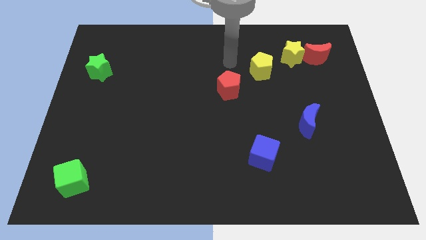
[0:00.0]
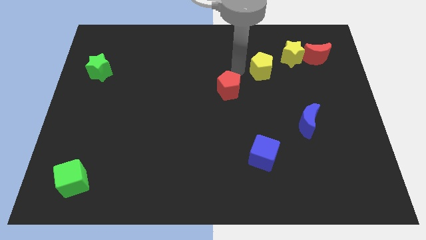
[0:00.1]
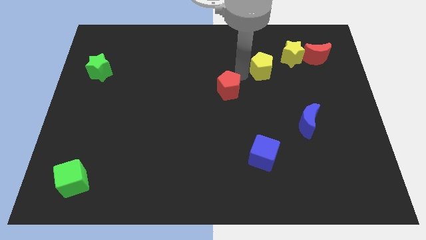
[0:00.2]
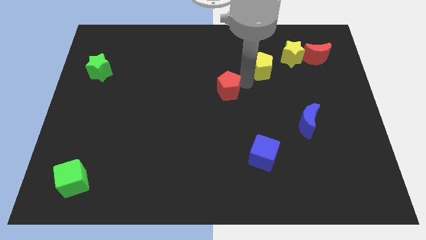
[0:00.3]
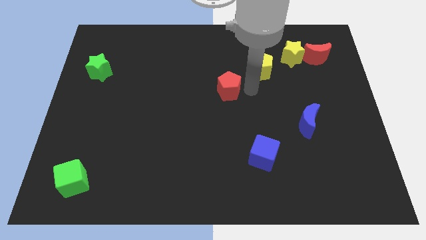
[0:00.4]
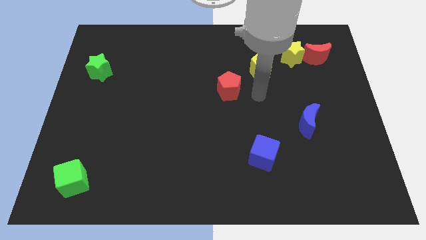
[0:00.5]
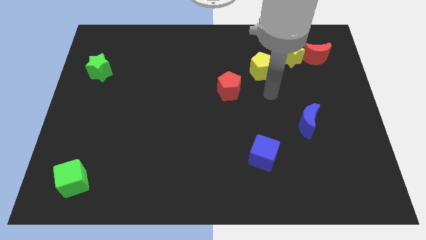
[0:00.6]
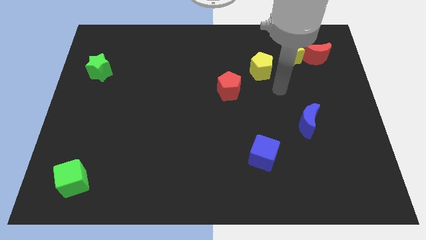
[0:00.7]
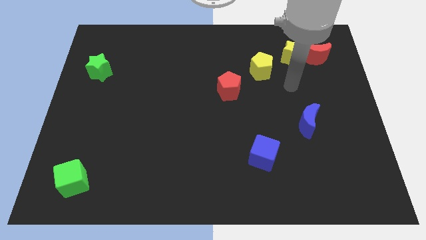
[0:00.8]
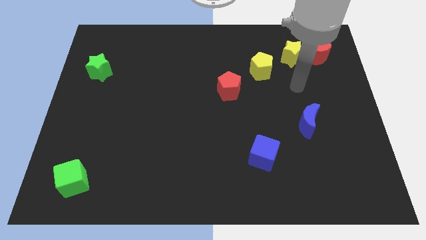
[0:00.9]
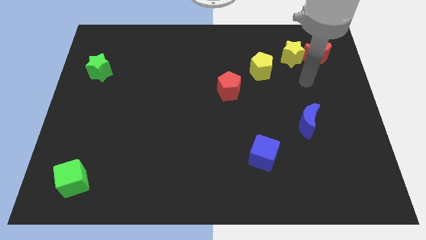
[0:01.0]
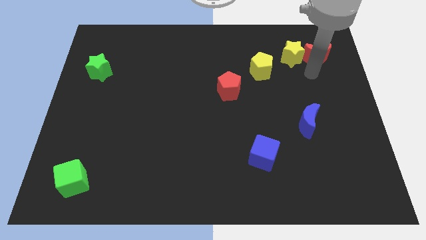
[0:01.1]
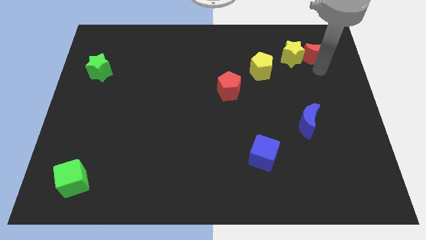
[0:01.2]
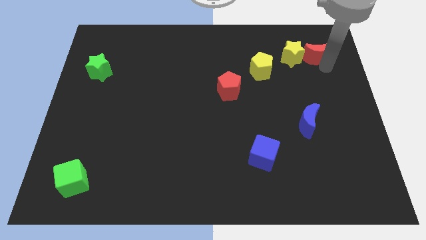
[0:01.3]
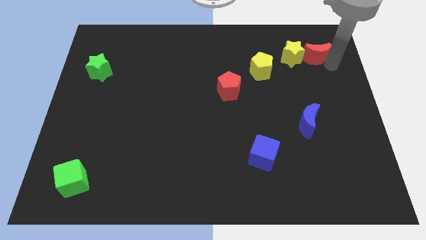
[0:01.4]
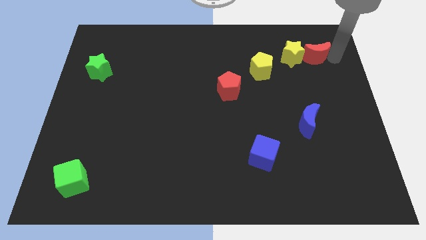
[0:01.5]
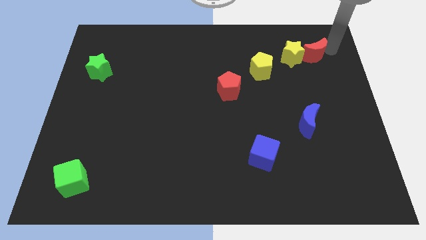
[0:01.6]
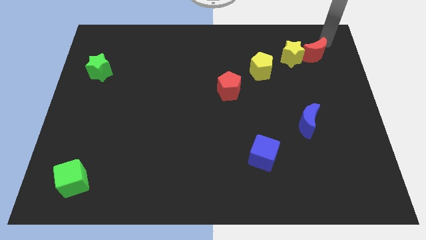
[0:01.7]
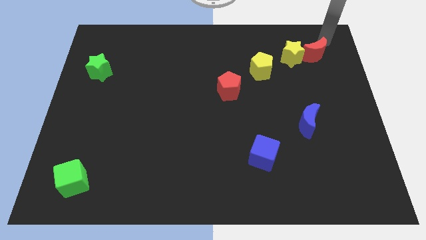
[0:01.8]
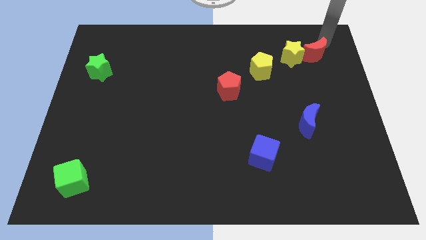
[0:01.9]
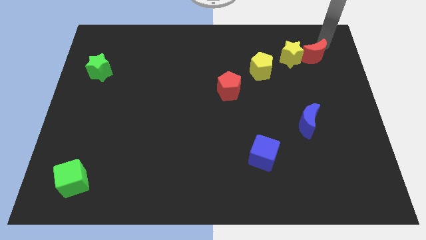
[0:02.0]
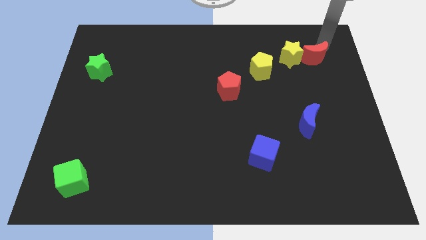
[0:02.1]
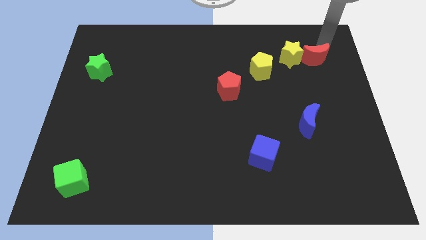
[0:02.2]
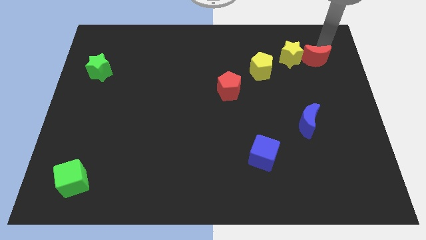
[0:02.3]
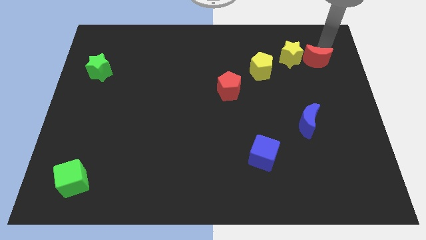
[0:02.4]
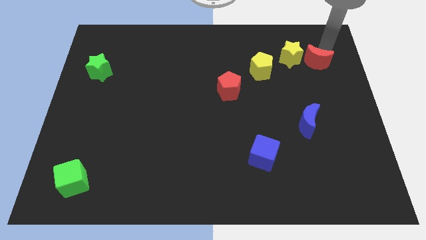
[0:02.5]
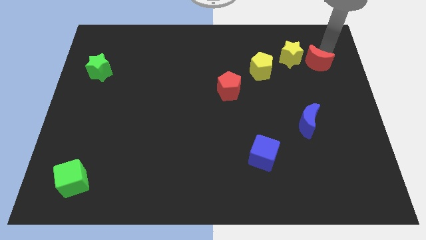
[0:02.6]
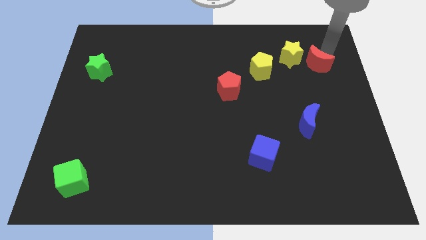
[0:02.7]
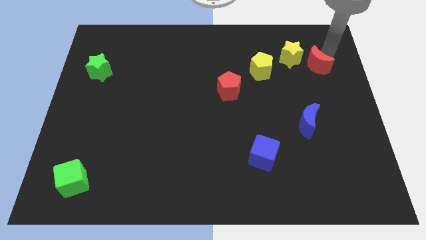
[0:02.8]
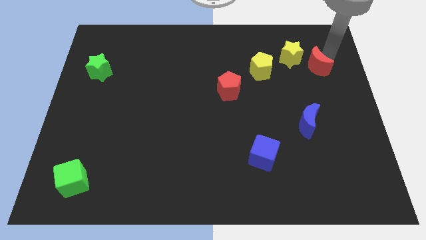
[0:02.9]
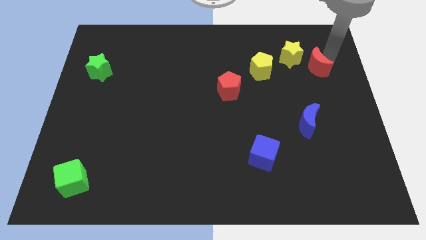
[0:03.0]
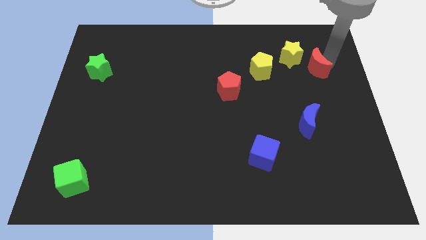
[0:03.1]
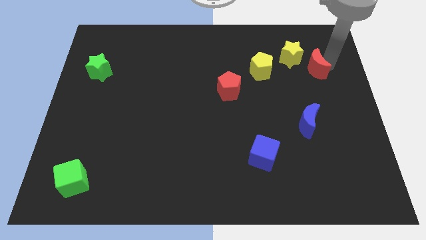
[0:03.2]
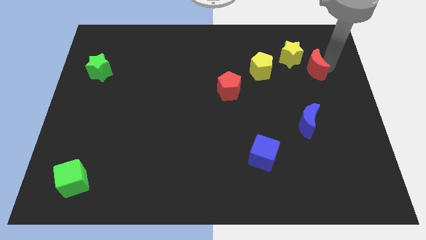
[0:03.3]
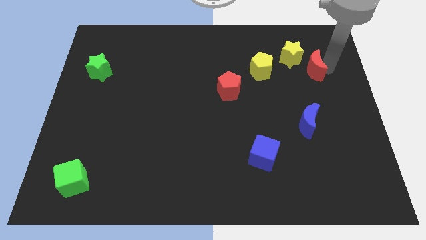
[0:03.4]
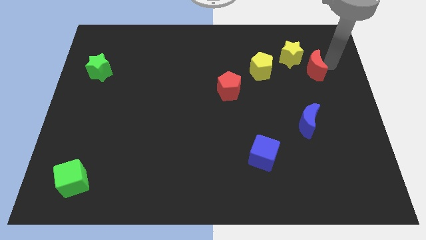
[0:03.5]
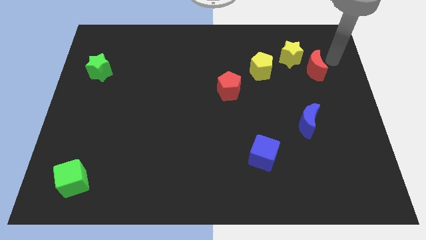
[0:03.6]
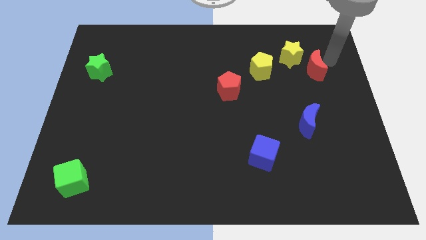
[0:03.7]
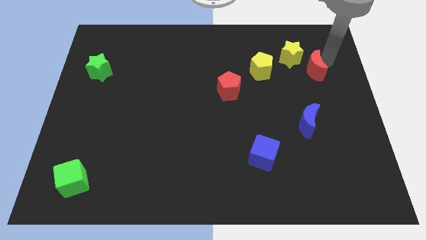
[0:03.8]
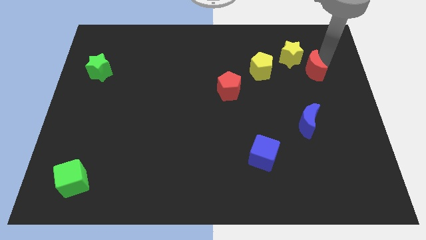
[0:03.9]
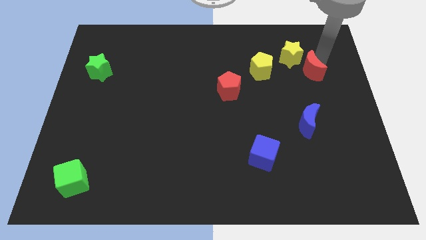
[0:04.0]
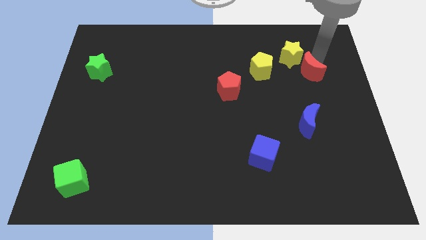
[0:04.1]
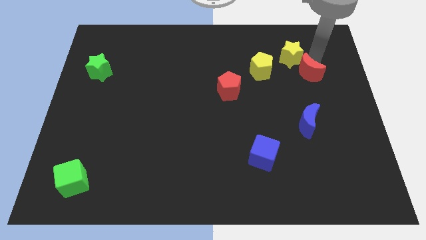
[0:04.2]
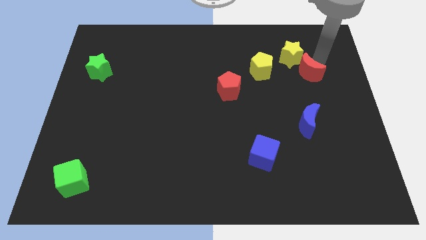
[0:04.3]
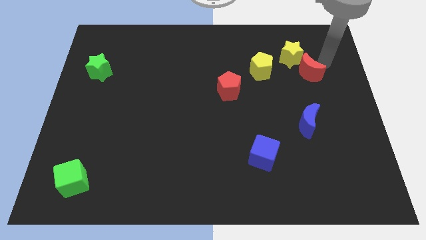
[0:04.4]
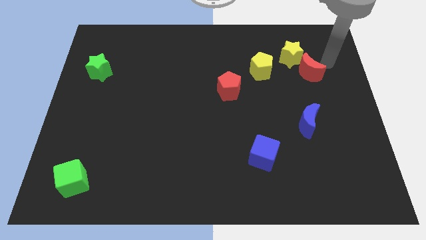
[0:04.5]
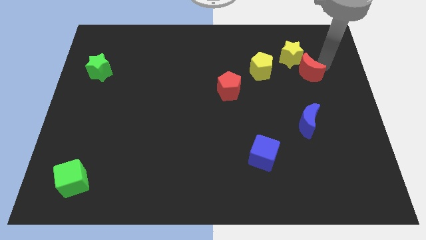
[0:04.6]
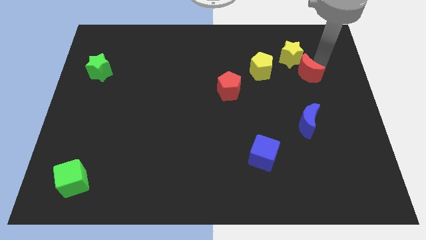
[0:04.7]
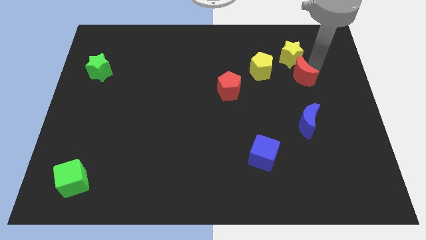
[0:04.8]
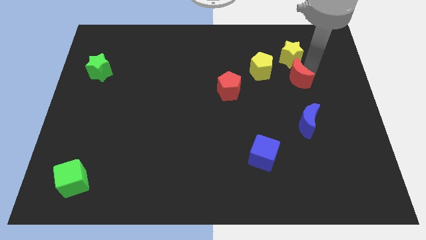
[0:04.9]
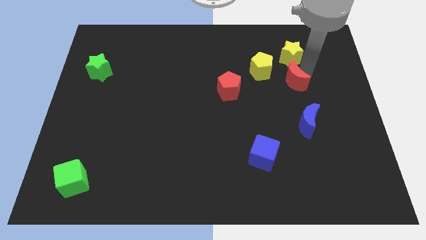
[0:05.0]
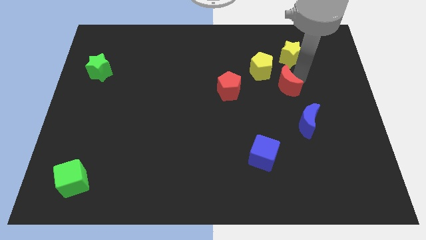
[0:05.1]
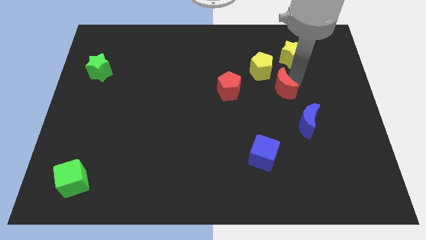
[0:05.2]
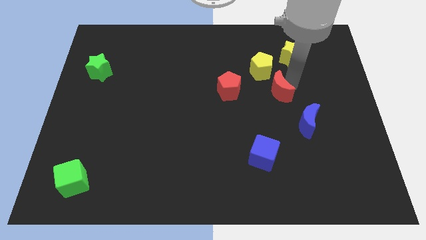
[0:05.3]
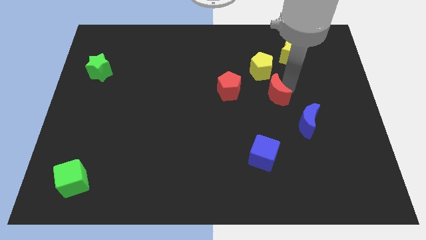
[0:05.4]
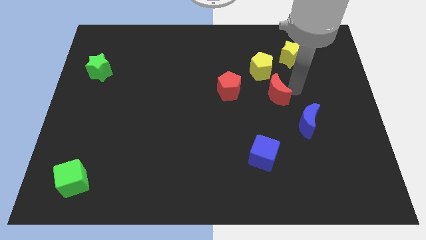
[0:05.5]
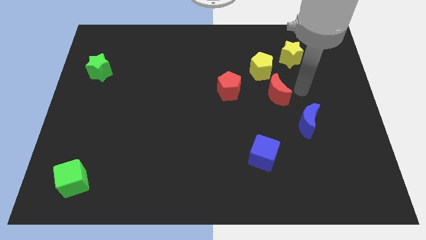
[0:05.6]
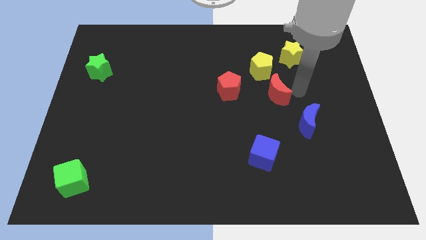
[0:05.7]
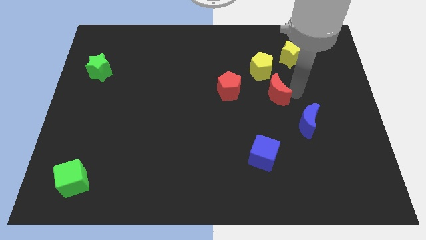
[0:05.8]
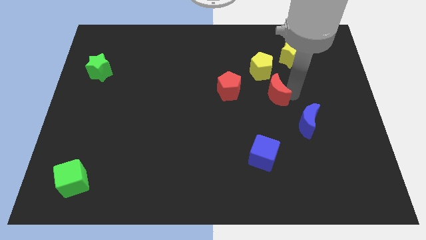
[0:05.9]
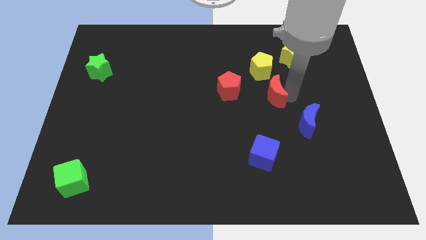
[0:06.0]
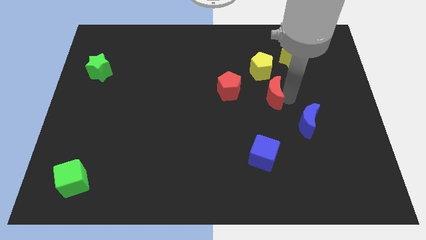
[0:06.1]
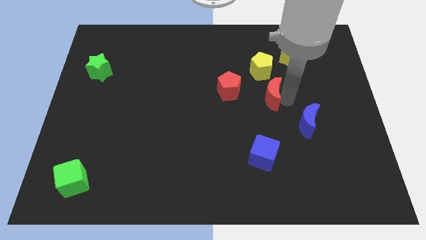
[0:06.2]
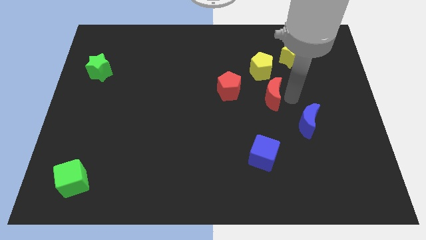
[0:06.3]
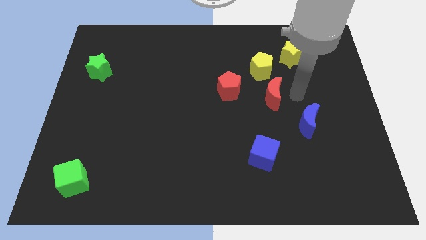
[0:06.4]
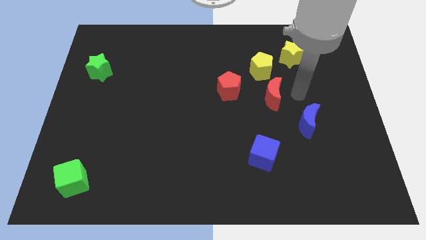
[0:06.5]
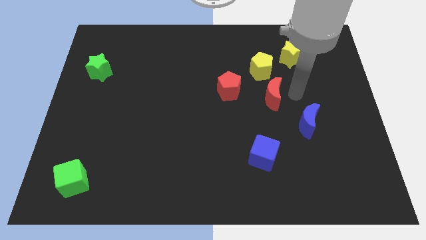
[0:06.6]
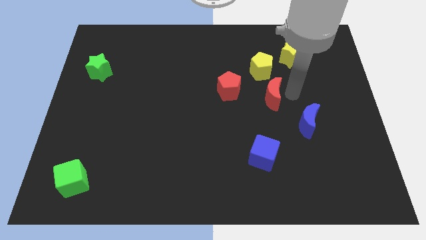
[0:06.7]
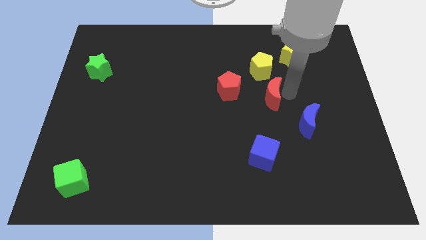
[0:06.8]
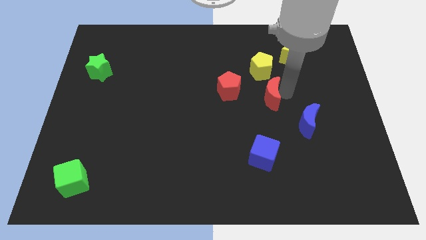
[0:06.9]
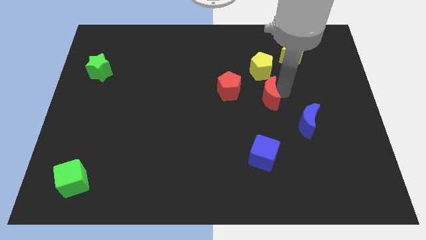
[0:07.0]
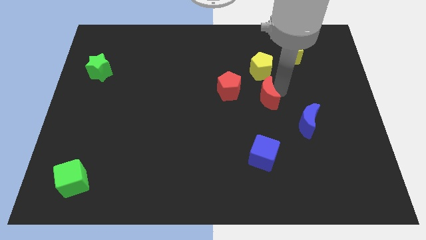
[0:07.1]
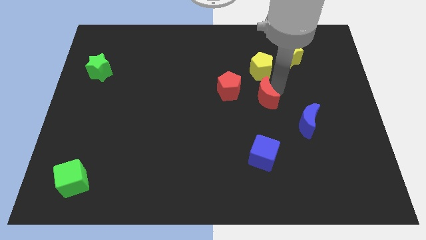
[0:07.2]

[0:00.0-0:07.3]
slide the red moon to the middle
